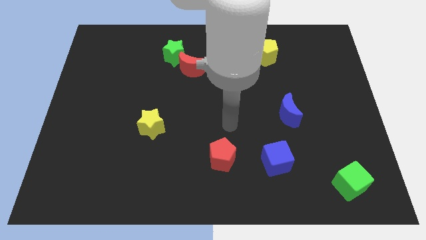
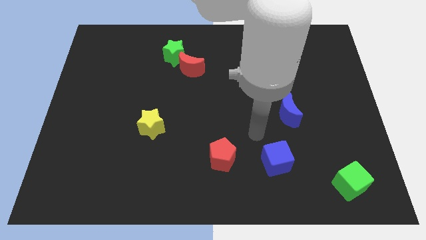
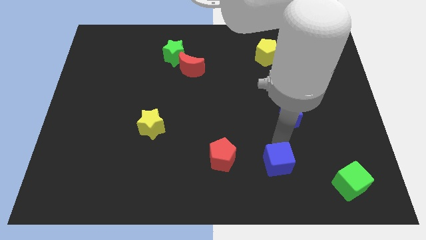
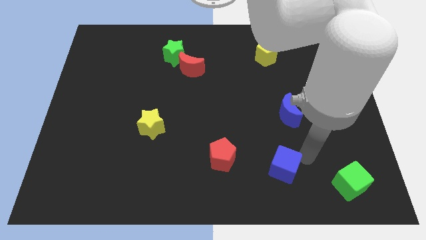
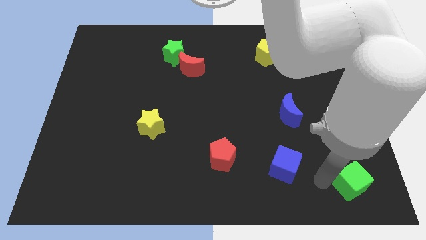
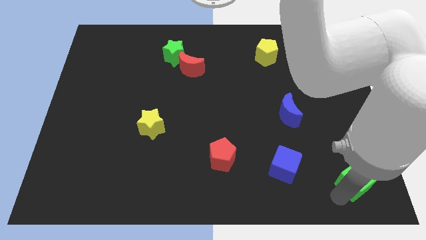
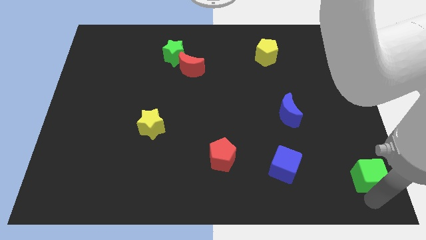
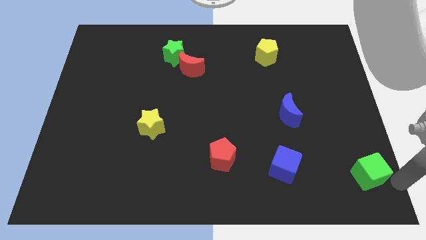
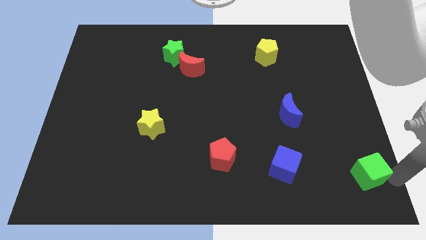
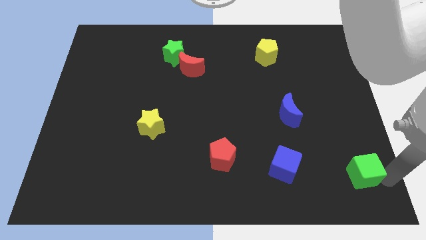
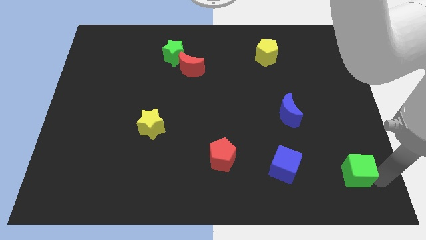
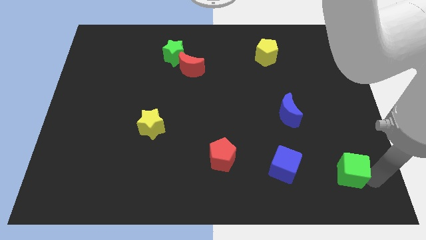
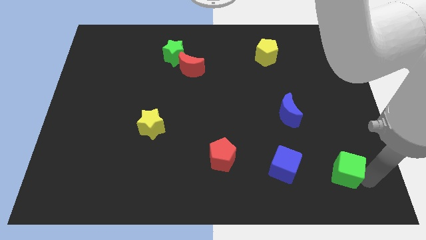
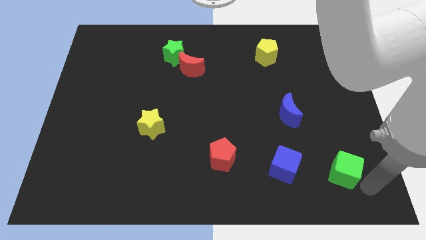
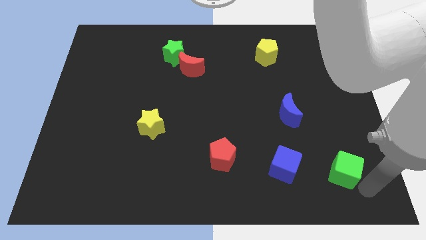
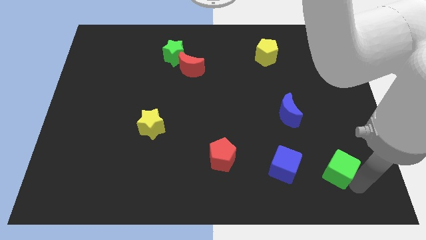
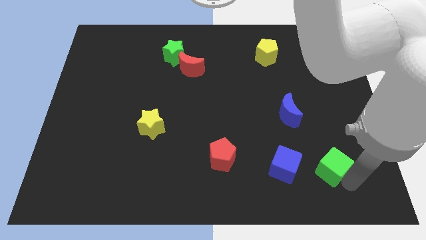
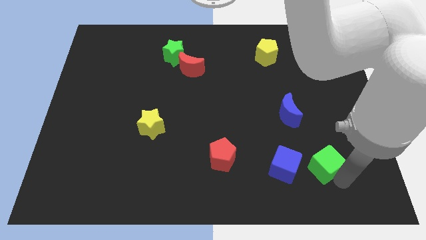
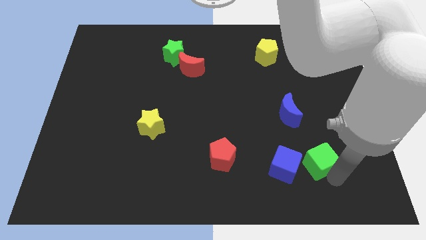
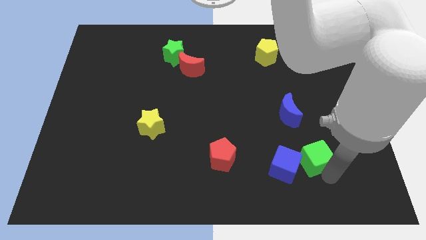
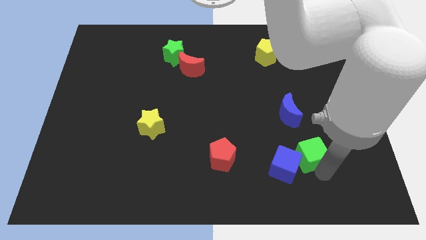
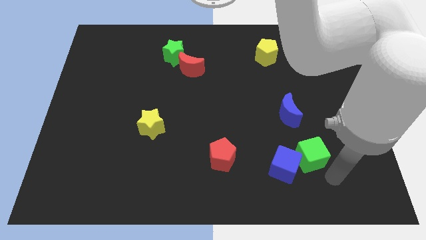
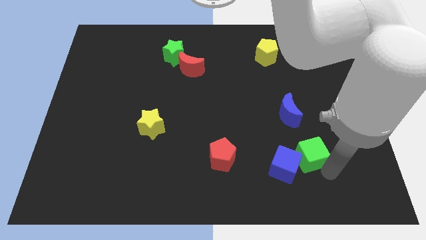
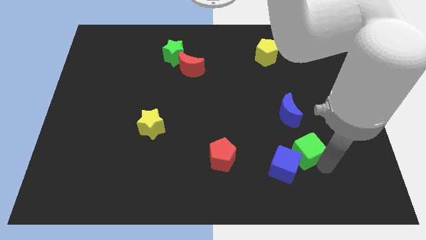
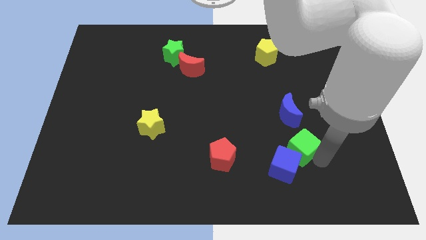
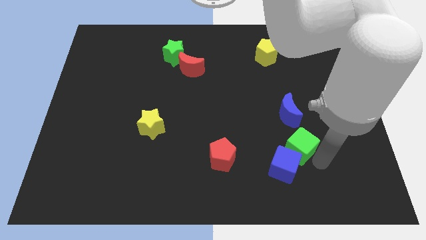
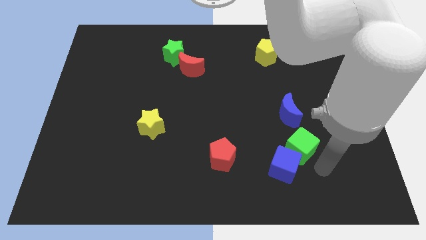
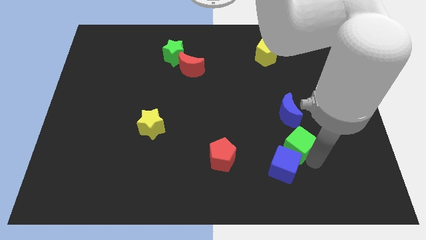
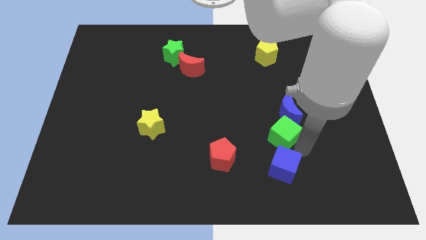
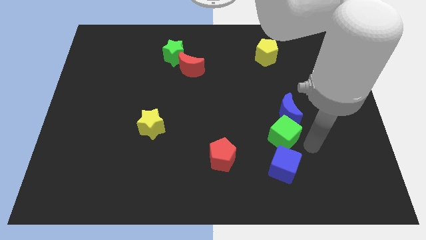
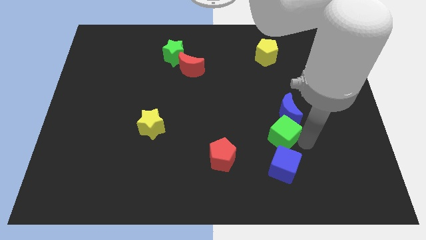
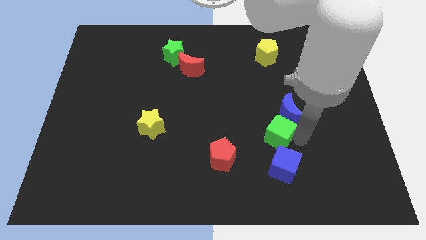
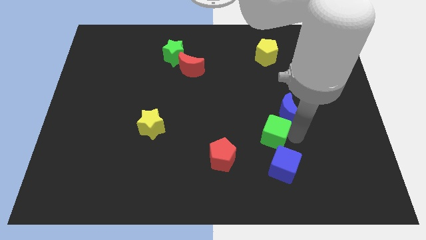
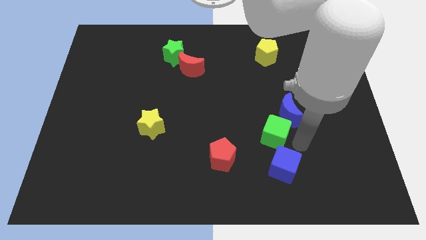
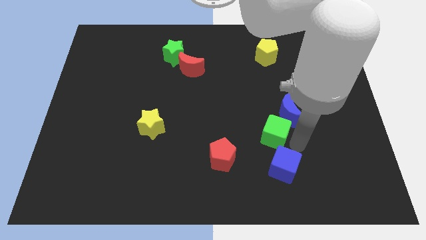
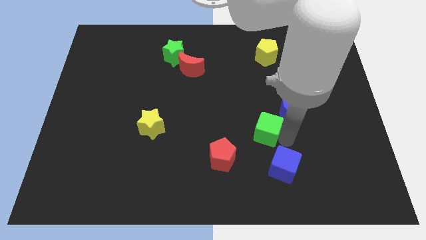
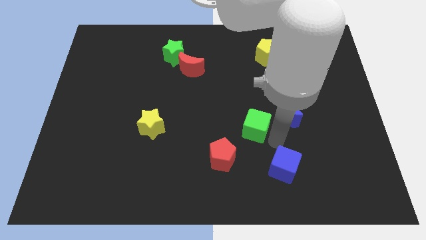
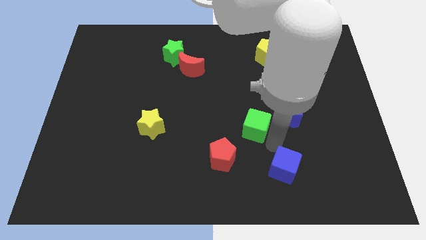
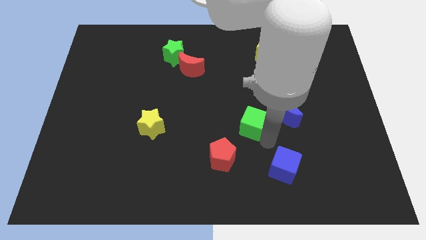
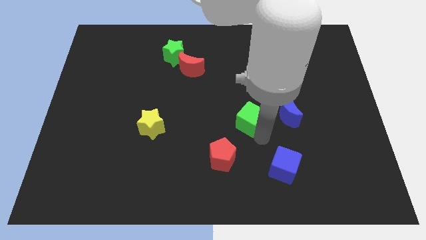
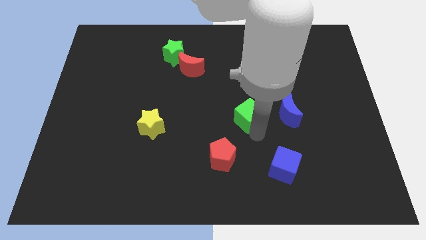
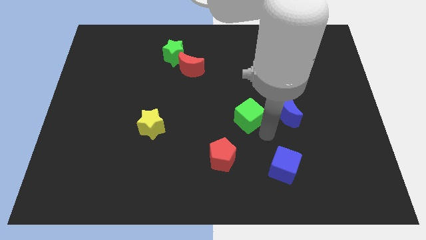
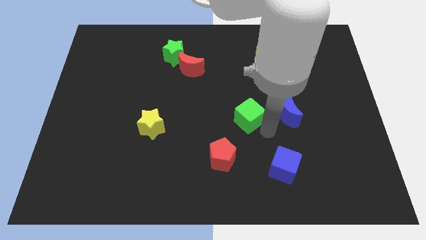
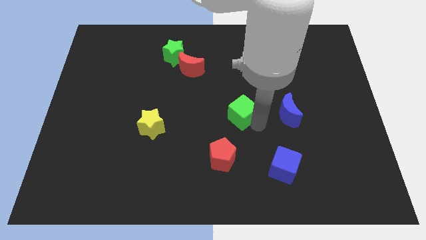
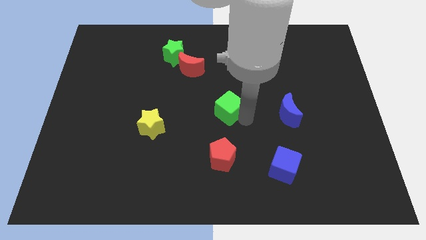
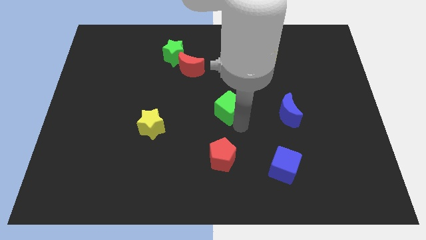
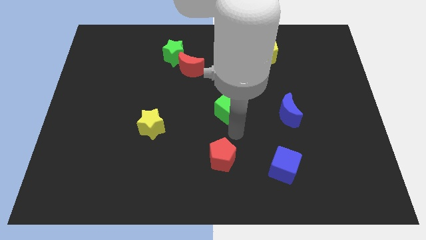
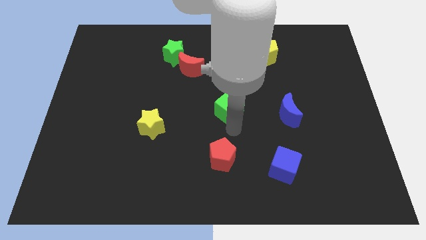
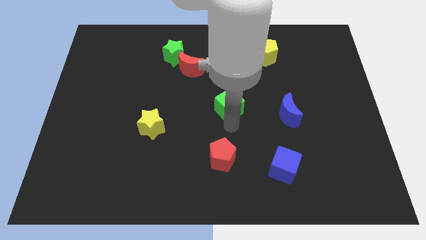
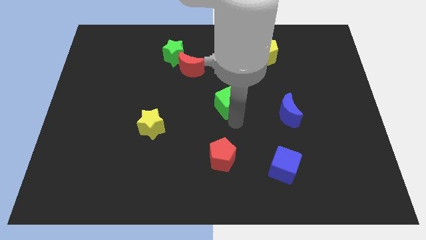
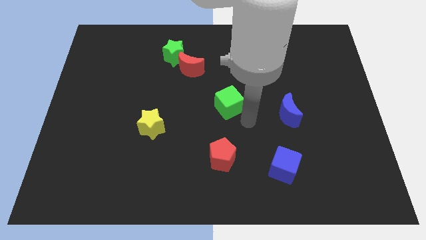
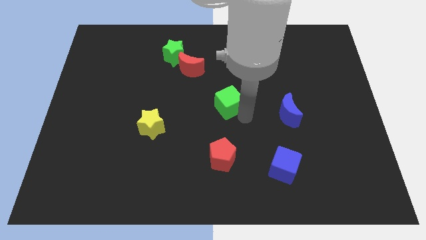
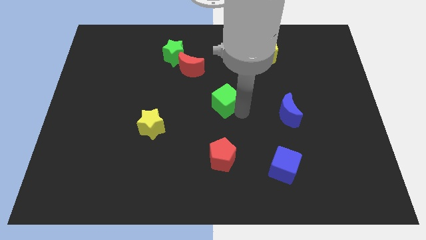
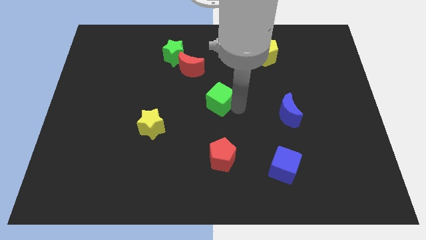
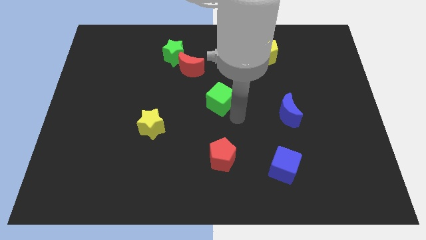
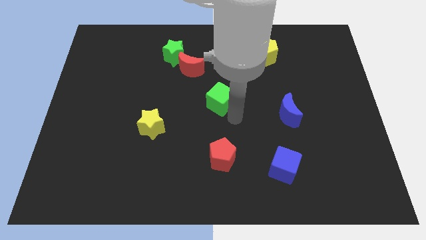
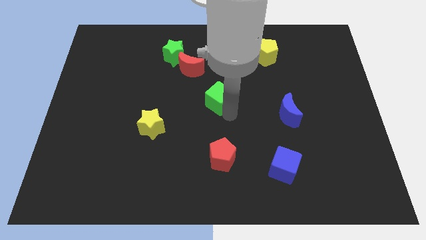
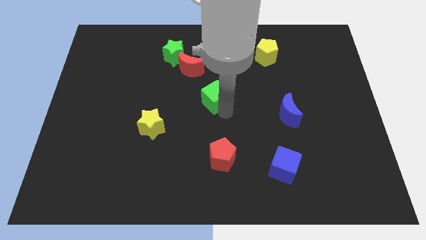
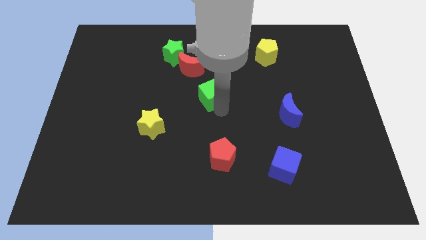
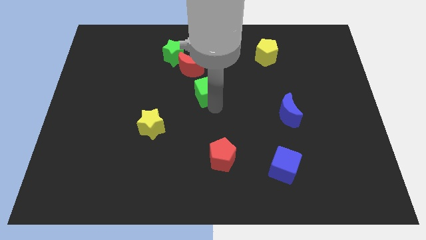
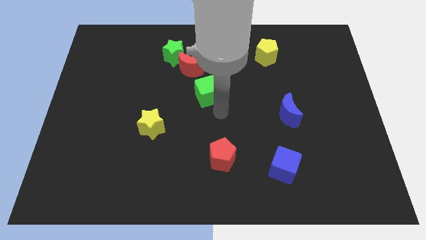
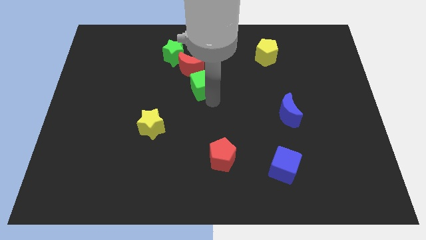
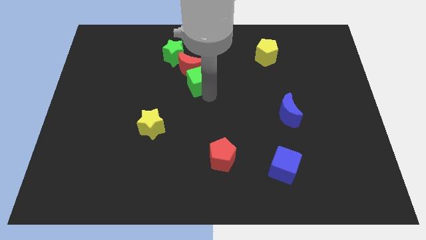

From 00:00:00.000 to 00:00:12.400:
push the green cube close to the red moon
